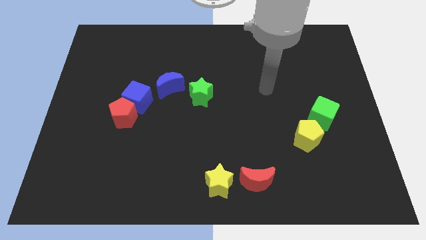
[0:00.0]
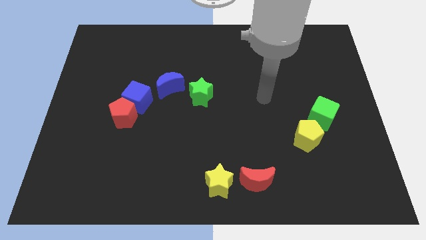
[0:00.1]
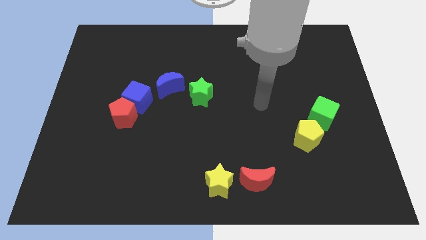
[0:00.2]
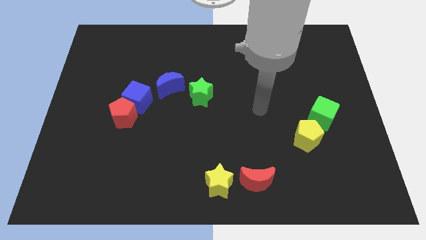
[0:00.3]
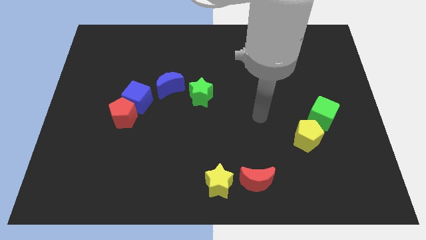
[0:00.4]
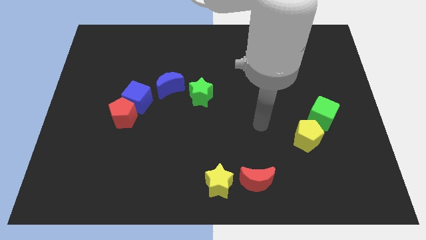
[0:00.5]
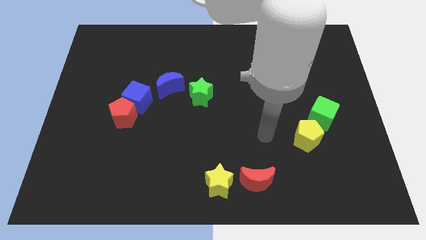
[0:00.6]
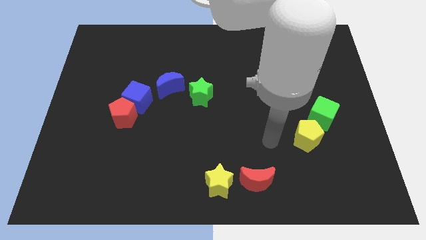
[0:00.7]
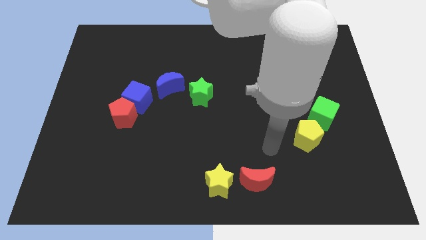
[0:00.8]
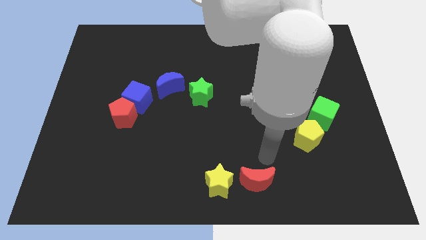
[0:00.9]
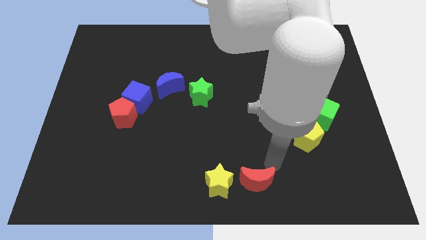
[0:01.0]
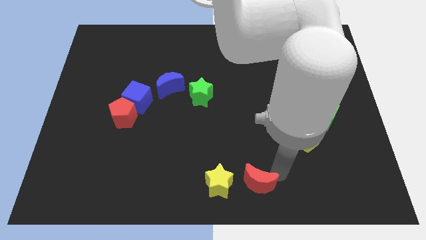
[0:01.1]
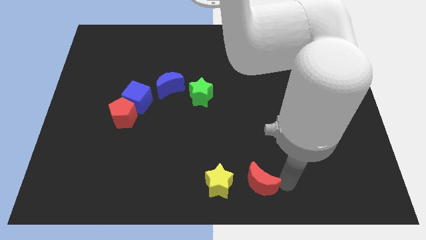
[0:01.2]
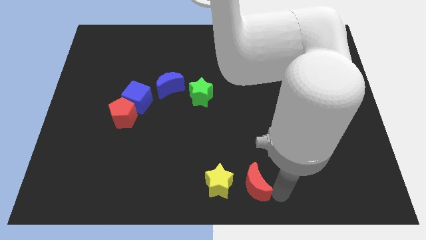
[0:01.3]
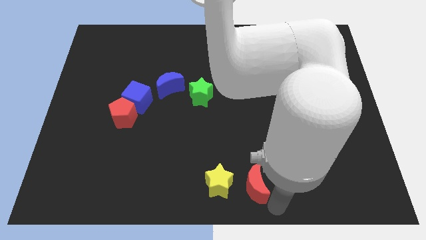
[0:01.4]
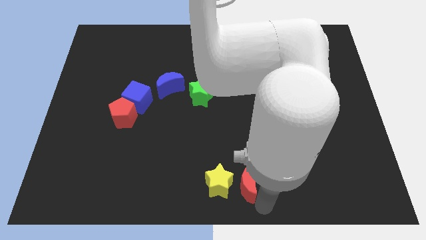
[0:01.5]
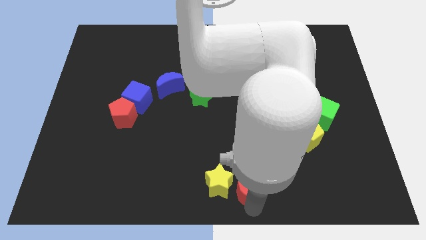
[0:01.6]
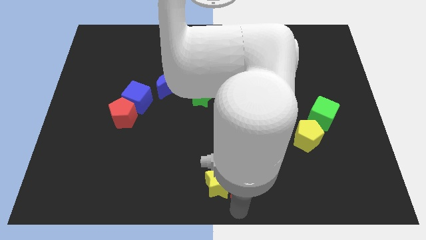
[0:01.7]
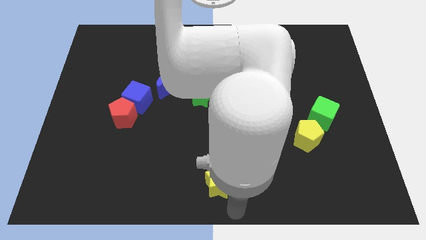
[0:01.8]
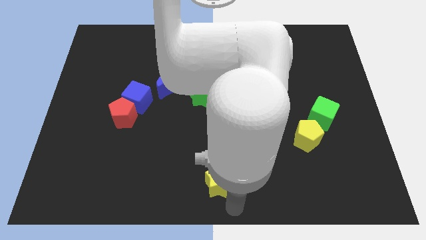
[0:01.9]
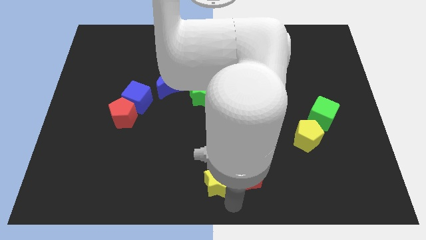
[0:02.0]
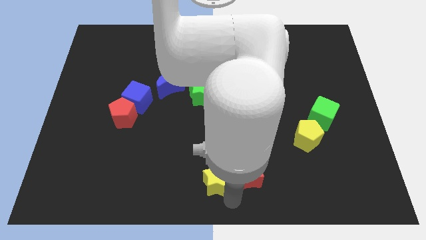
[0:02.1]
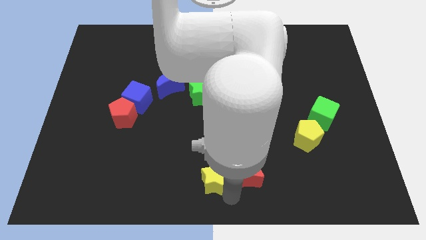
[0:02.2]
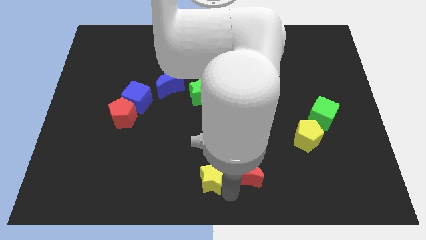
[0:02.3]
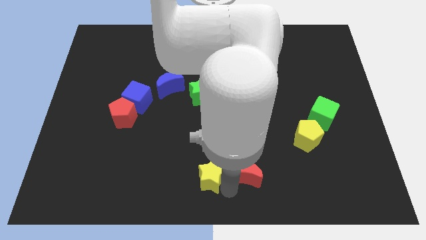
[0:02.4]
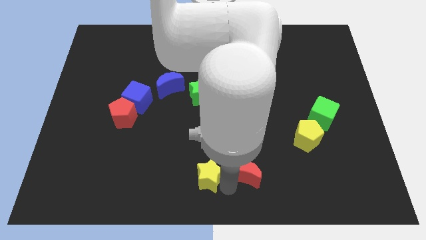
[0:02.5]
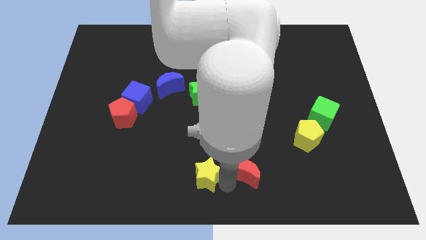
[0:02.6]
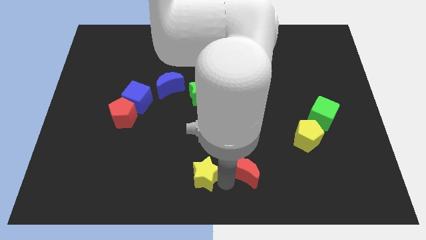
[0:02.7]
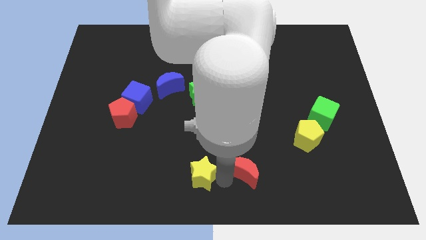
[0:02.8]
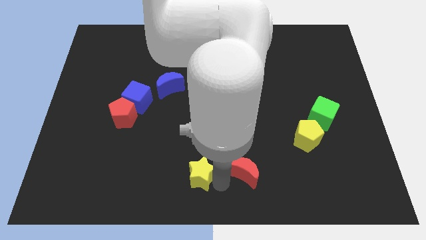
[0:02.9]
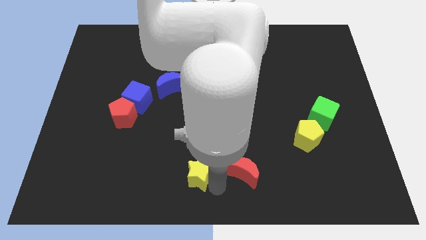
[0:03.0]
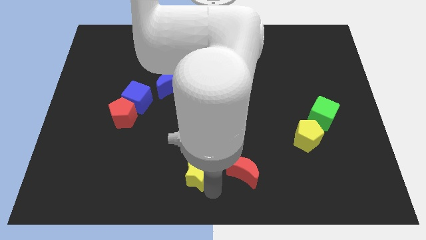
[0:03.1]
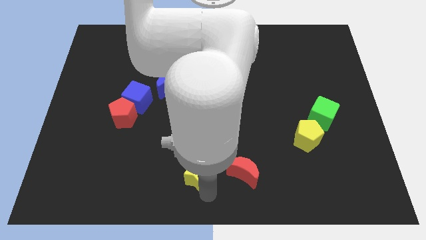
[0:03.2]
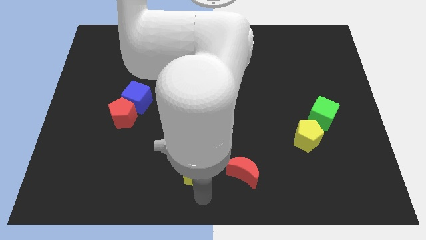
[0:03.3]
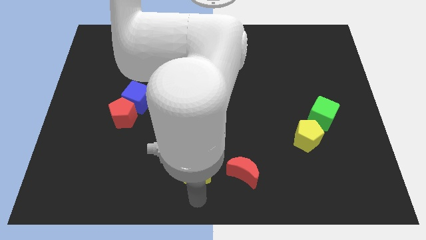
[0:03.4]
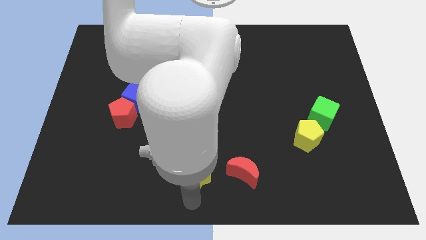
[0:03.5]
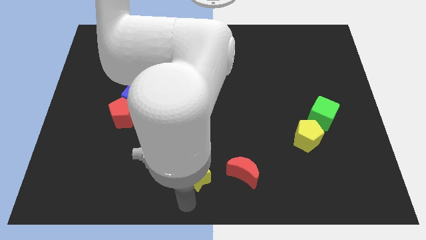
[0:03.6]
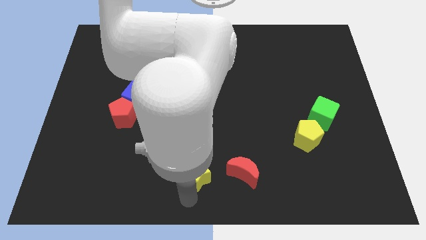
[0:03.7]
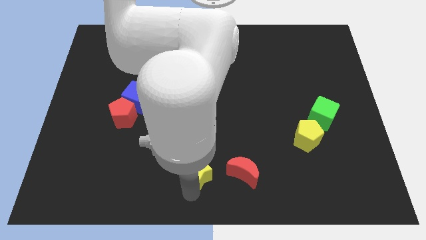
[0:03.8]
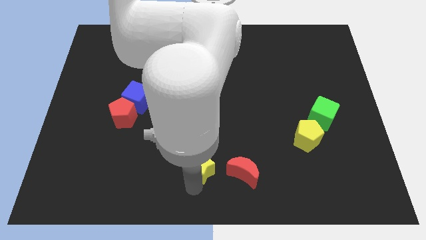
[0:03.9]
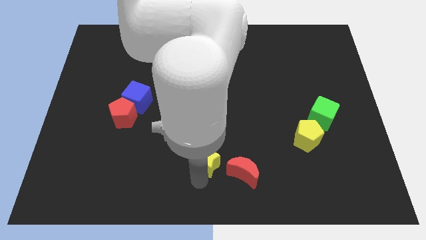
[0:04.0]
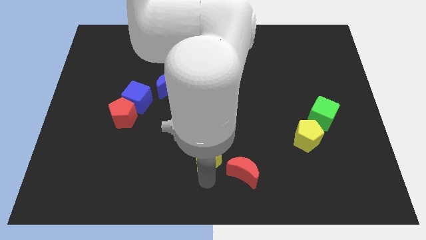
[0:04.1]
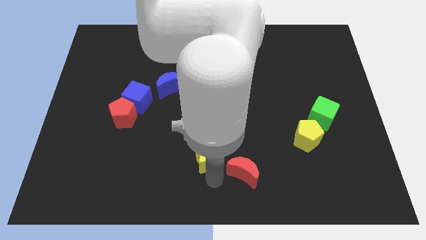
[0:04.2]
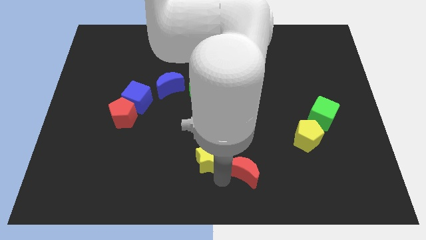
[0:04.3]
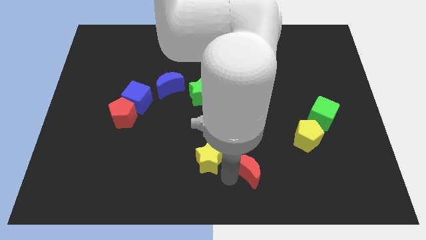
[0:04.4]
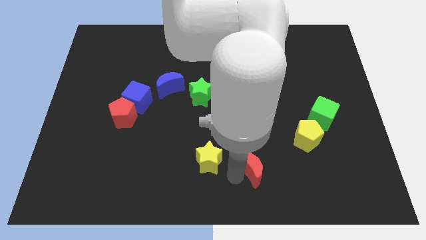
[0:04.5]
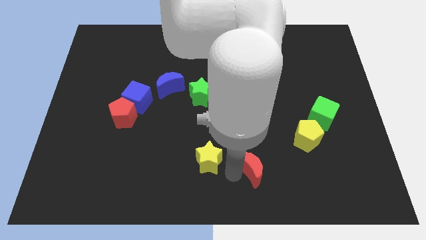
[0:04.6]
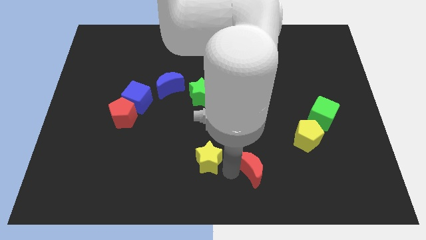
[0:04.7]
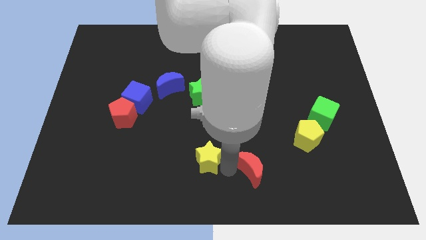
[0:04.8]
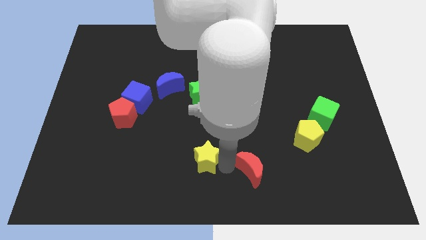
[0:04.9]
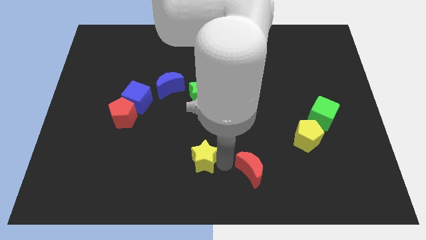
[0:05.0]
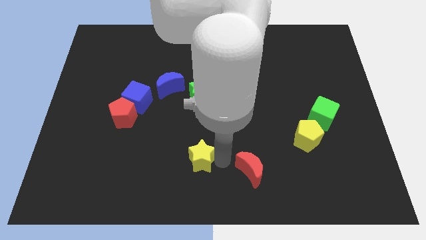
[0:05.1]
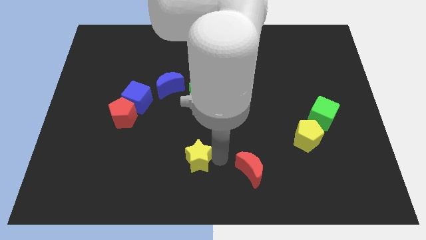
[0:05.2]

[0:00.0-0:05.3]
slightly push the yellow star up and to the left diagonally

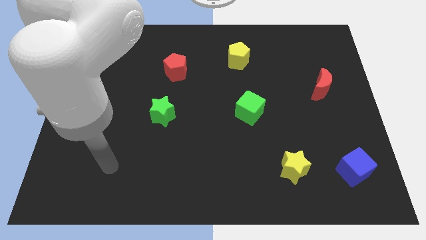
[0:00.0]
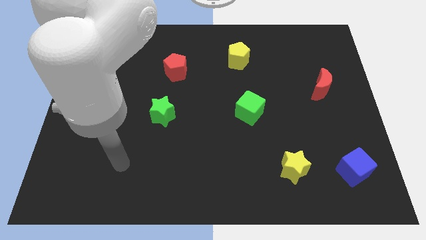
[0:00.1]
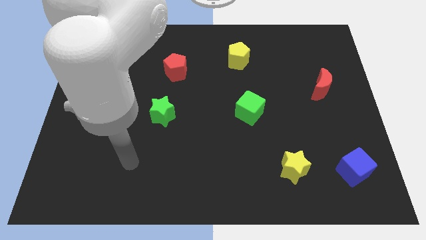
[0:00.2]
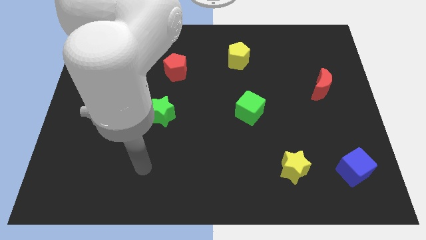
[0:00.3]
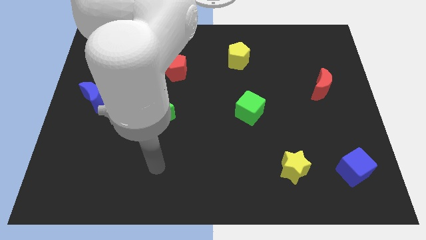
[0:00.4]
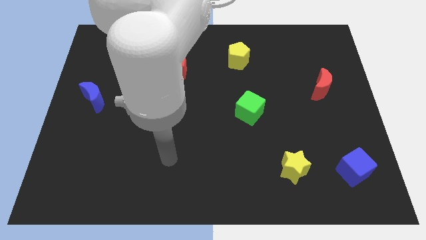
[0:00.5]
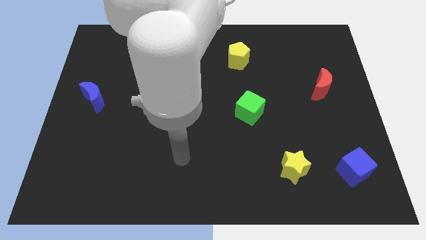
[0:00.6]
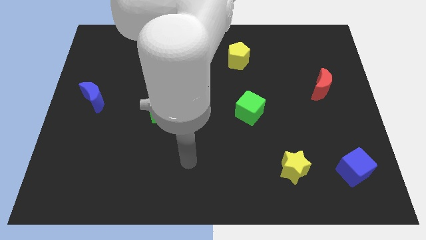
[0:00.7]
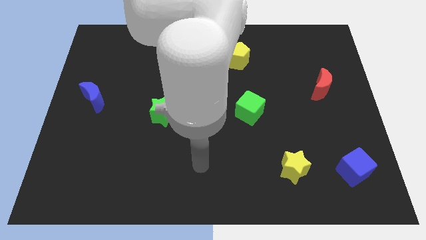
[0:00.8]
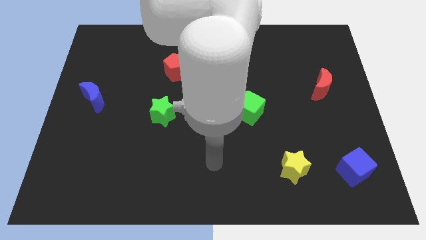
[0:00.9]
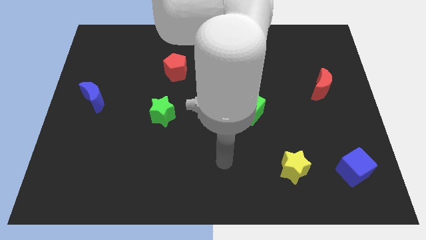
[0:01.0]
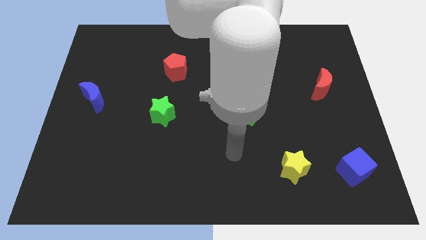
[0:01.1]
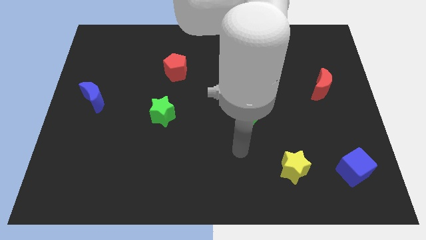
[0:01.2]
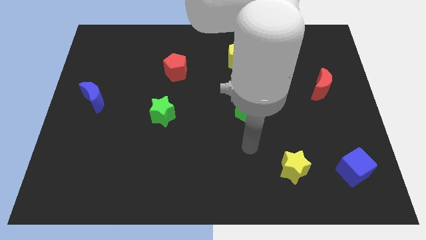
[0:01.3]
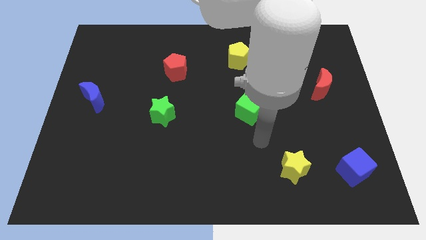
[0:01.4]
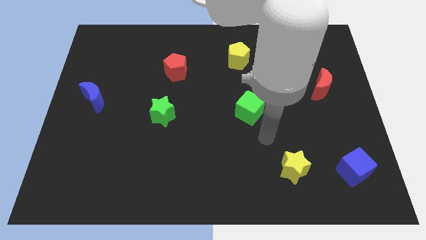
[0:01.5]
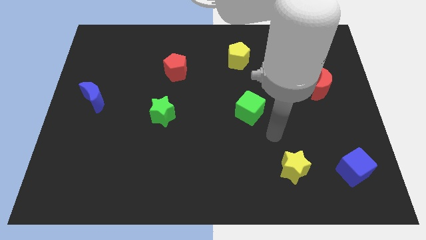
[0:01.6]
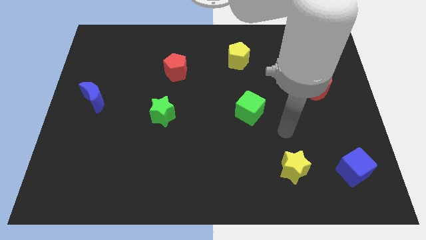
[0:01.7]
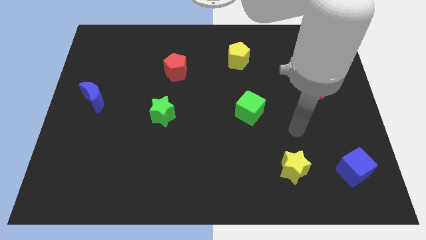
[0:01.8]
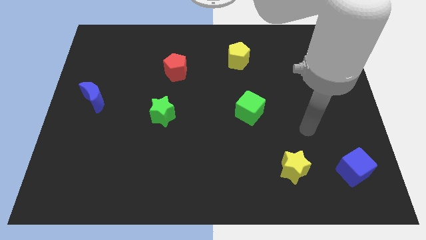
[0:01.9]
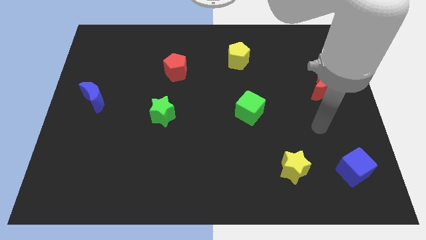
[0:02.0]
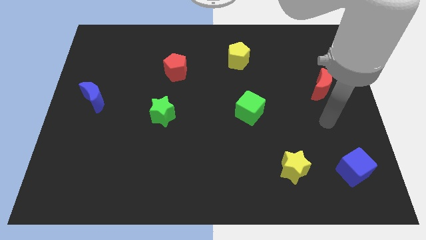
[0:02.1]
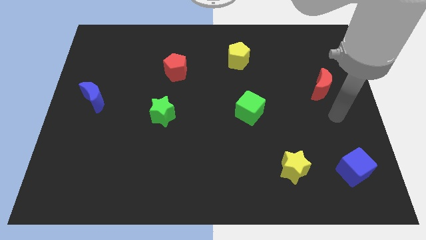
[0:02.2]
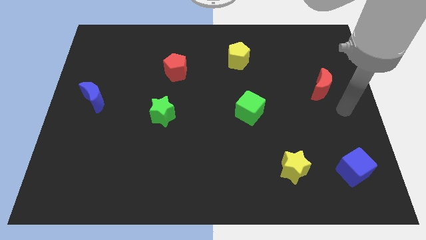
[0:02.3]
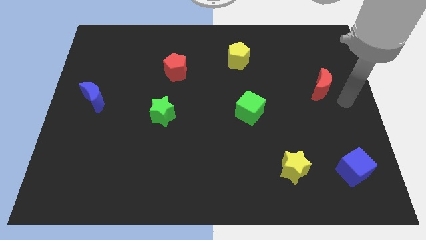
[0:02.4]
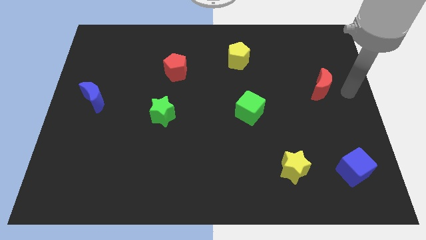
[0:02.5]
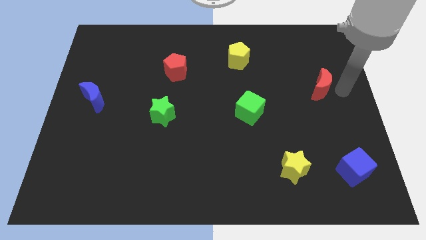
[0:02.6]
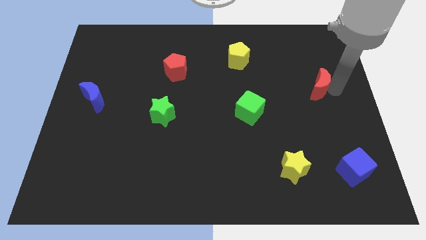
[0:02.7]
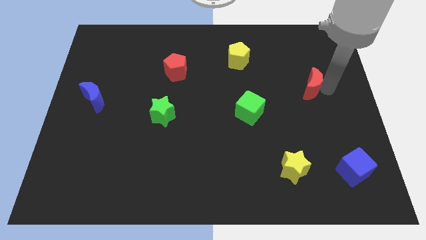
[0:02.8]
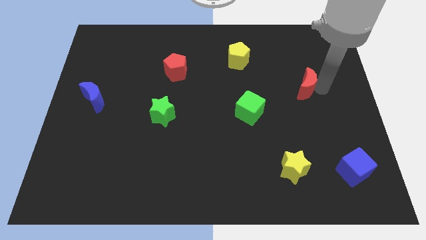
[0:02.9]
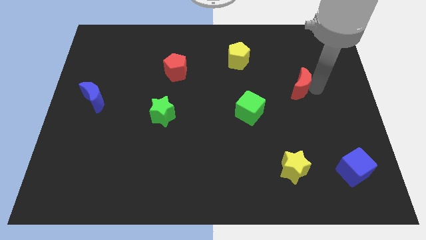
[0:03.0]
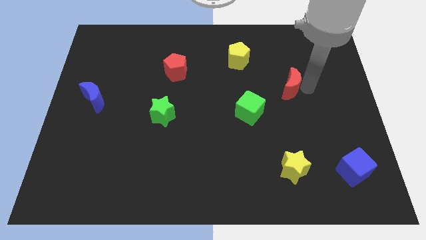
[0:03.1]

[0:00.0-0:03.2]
push the red moon a little to the left
